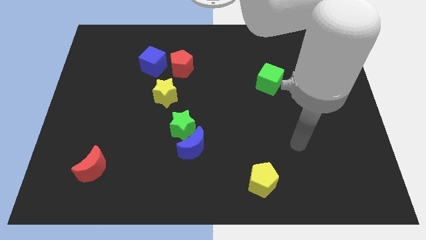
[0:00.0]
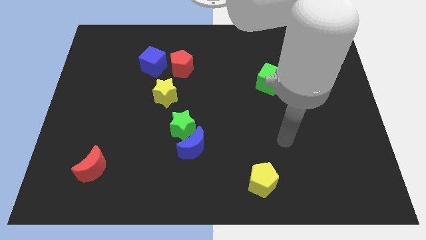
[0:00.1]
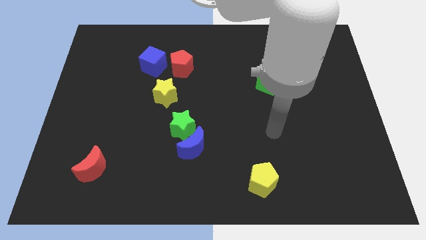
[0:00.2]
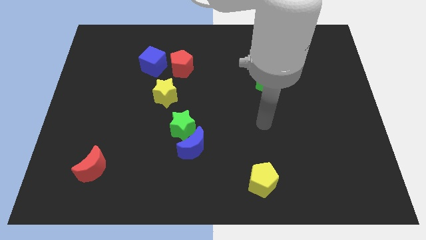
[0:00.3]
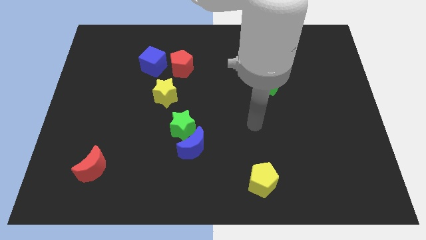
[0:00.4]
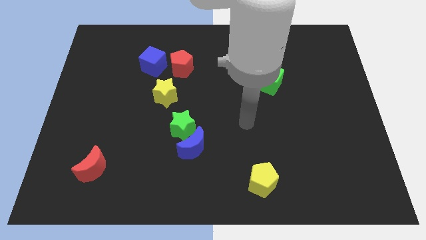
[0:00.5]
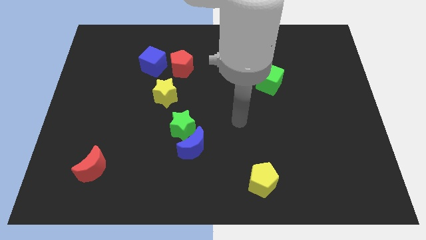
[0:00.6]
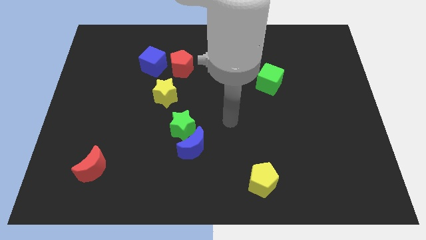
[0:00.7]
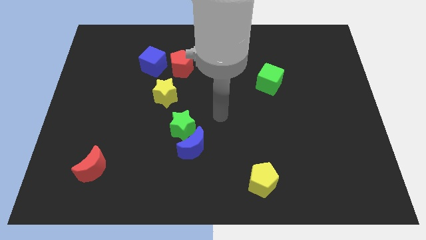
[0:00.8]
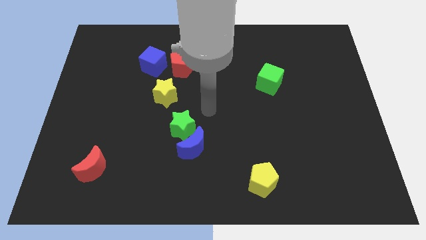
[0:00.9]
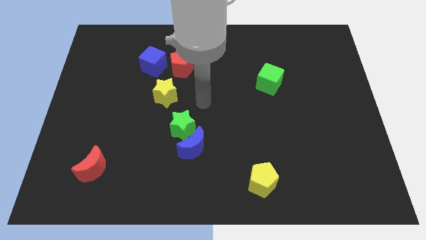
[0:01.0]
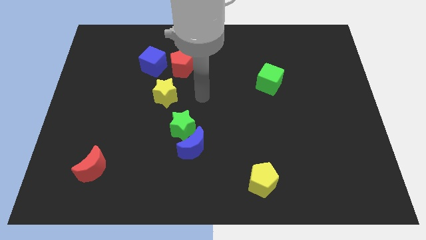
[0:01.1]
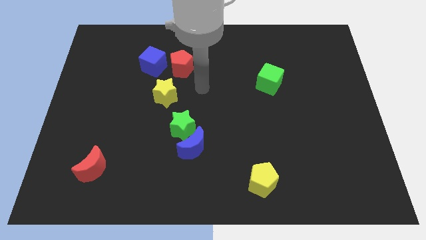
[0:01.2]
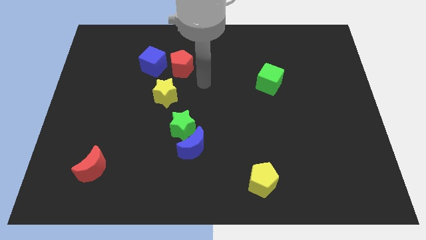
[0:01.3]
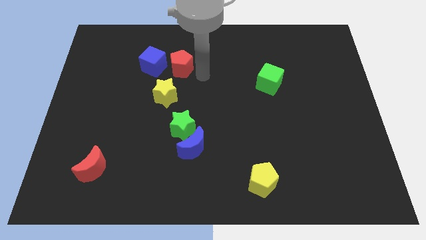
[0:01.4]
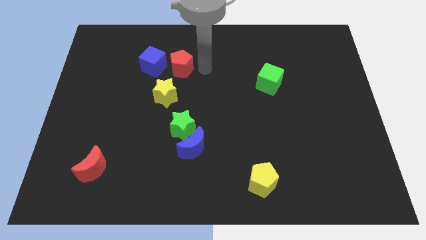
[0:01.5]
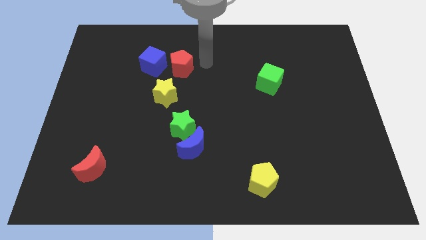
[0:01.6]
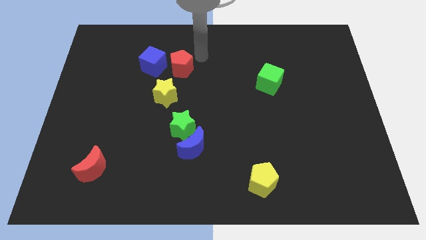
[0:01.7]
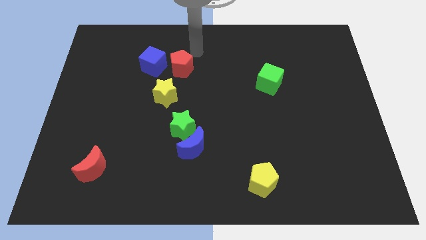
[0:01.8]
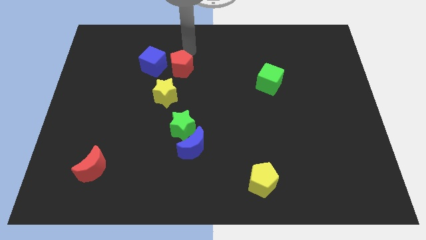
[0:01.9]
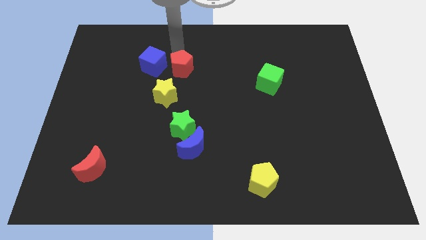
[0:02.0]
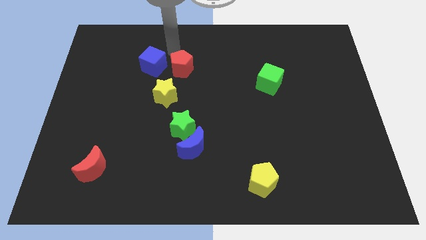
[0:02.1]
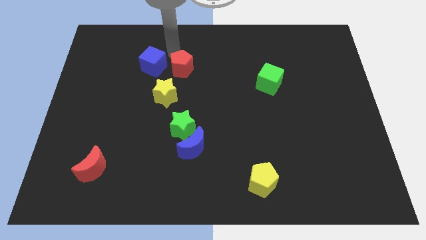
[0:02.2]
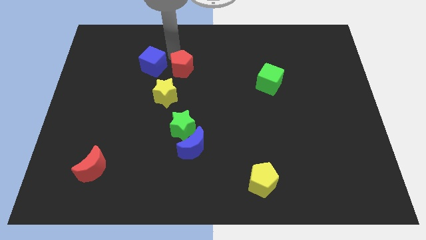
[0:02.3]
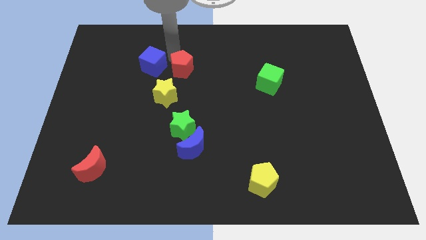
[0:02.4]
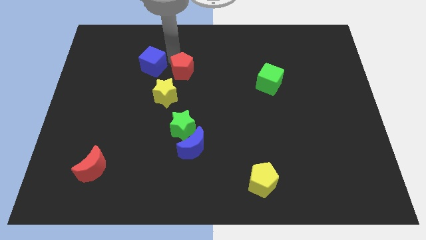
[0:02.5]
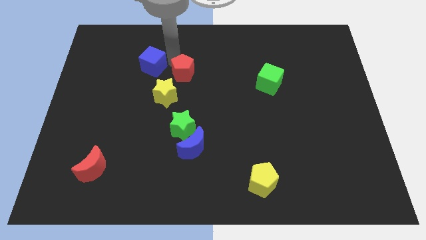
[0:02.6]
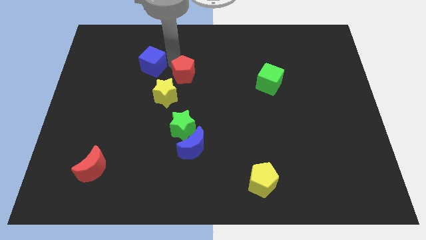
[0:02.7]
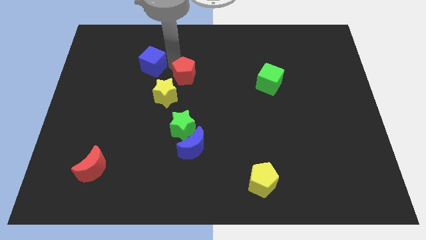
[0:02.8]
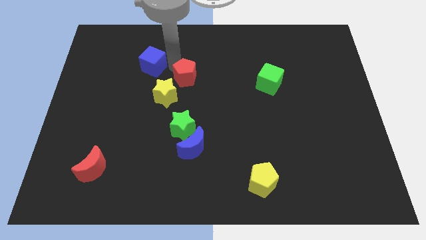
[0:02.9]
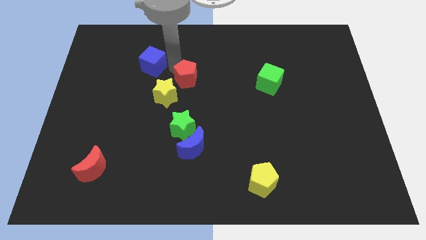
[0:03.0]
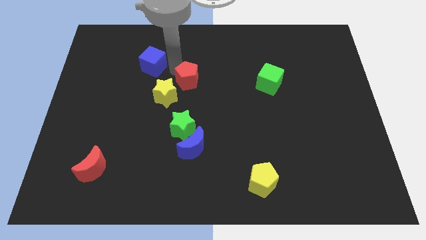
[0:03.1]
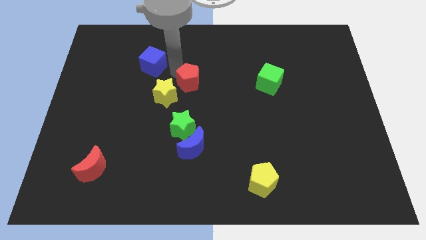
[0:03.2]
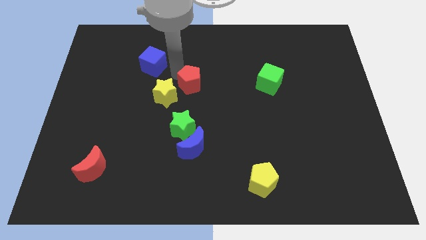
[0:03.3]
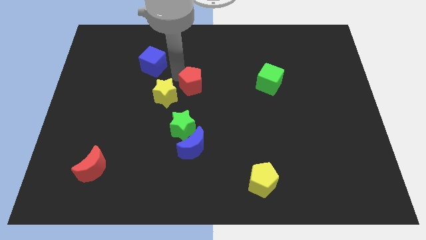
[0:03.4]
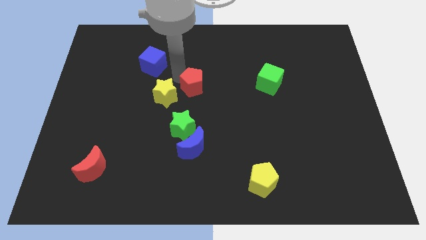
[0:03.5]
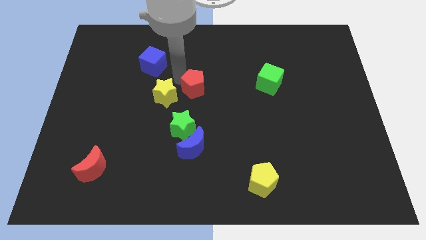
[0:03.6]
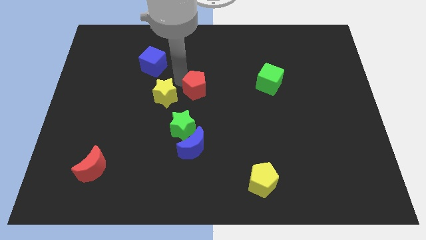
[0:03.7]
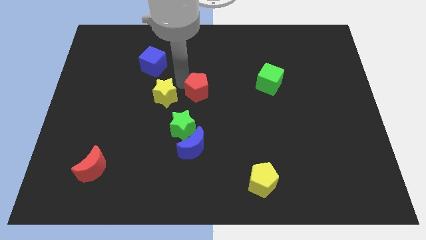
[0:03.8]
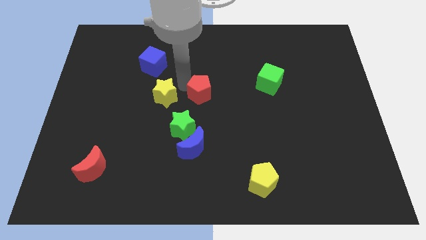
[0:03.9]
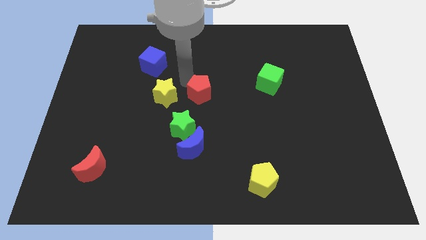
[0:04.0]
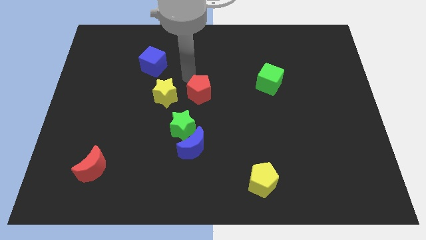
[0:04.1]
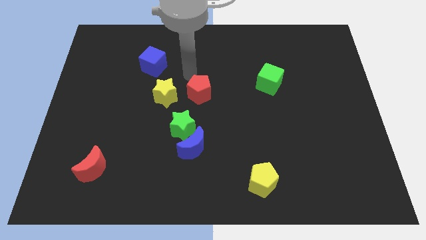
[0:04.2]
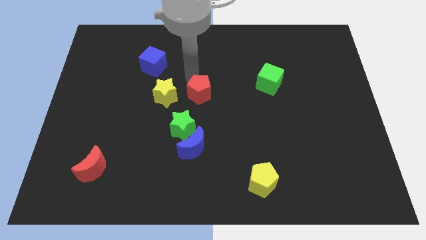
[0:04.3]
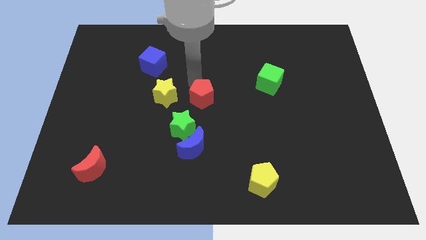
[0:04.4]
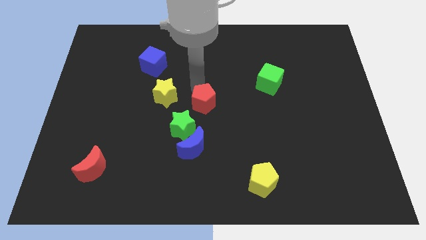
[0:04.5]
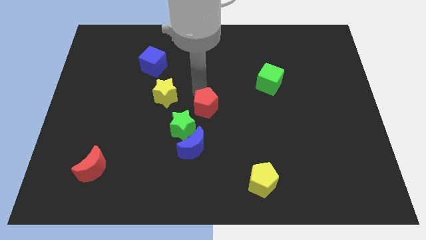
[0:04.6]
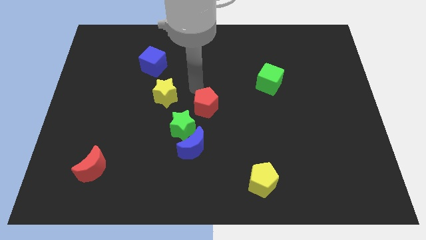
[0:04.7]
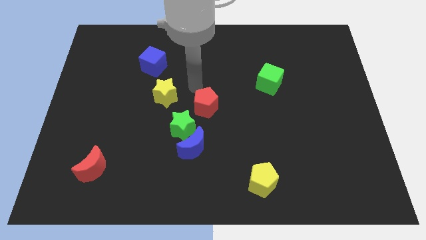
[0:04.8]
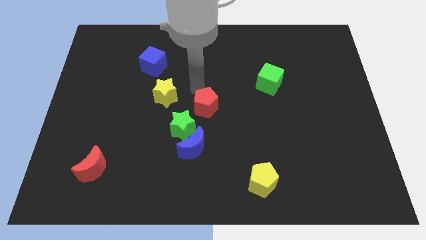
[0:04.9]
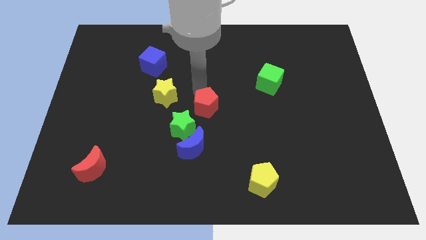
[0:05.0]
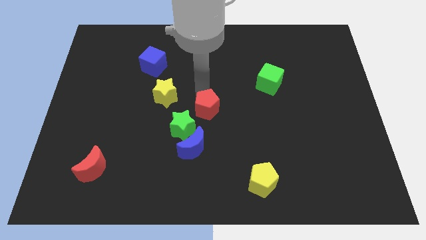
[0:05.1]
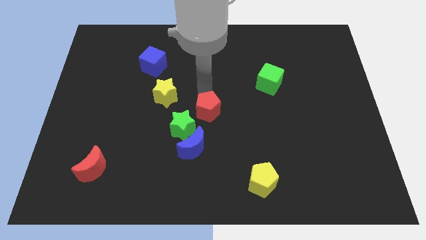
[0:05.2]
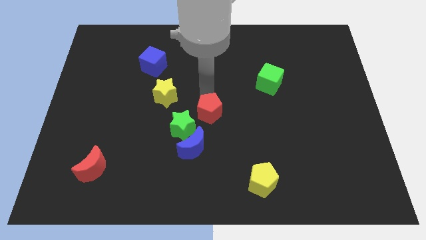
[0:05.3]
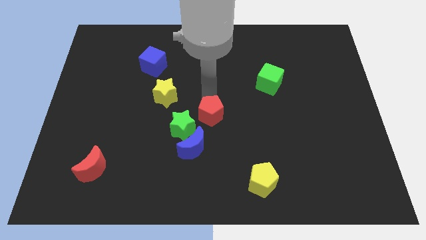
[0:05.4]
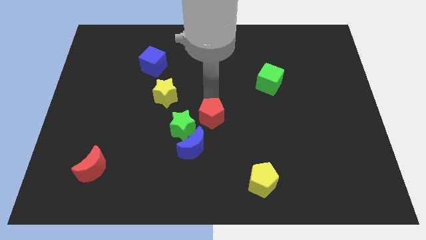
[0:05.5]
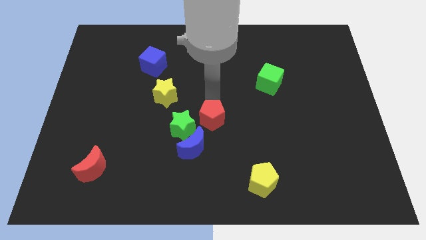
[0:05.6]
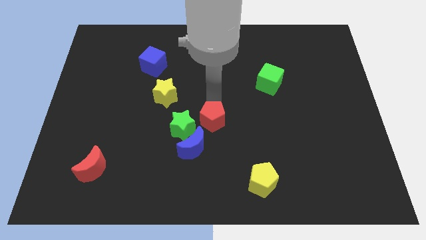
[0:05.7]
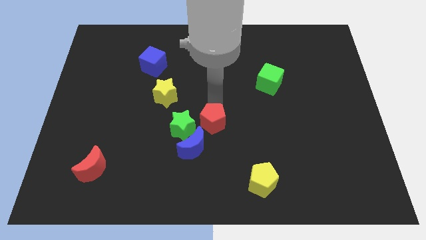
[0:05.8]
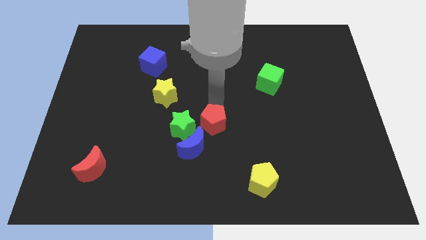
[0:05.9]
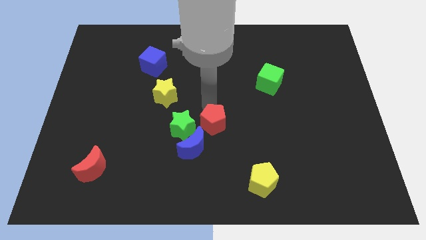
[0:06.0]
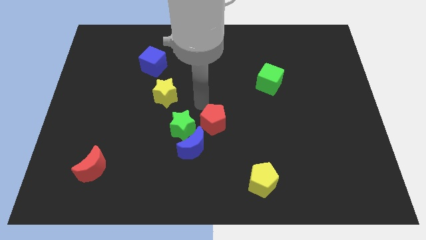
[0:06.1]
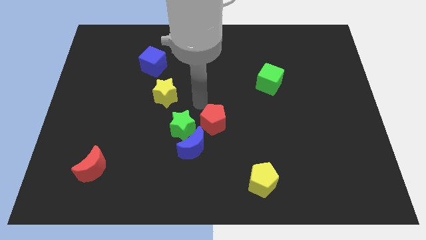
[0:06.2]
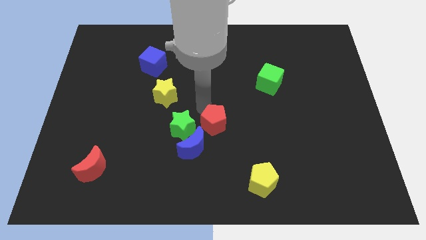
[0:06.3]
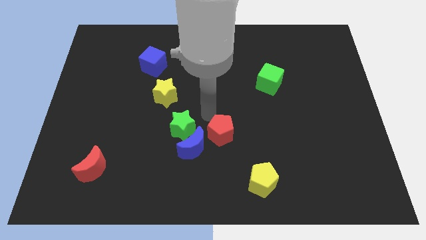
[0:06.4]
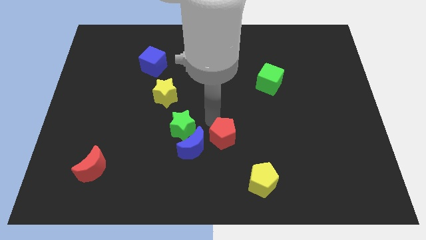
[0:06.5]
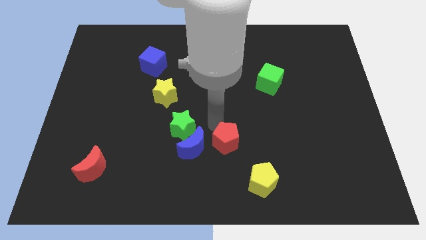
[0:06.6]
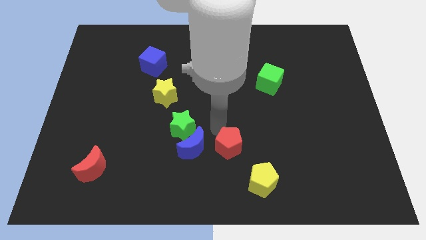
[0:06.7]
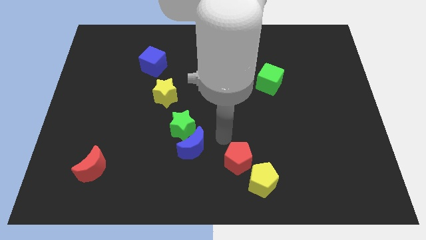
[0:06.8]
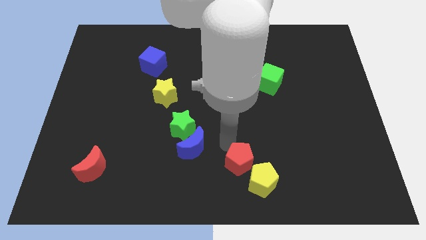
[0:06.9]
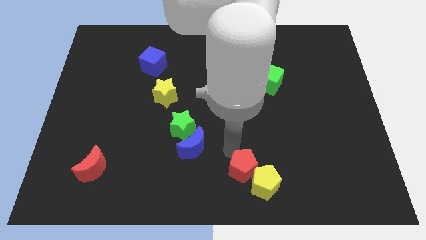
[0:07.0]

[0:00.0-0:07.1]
move the red pentagon to the yellow pentagon

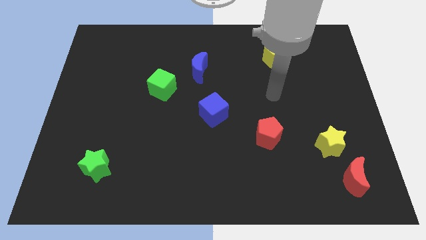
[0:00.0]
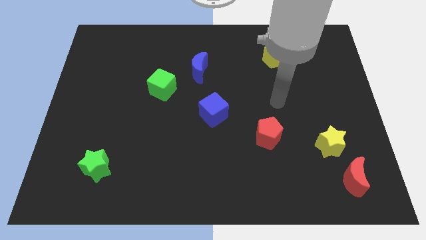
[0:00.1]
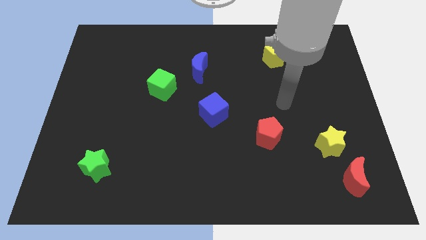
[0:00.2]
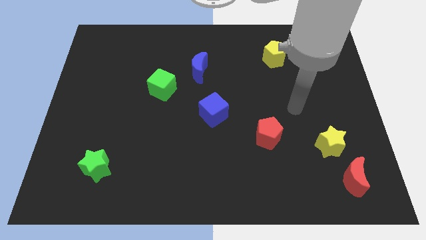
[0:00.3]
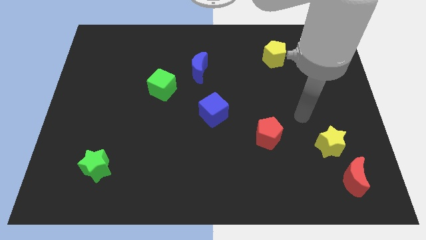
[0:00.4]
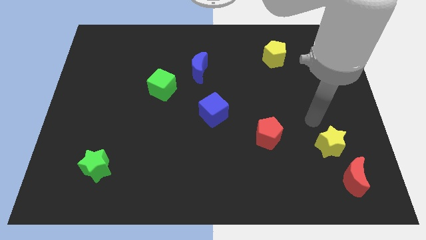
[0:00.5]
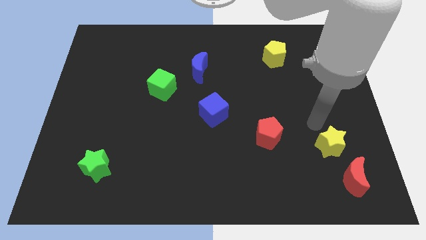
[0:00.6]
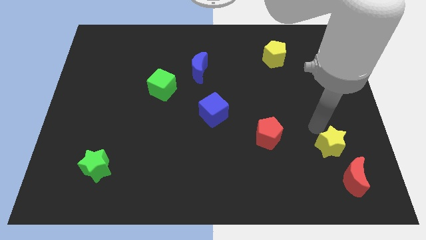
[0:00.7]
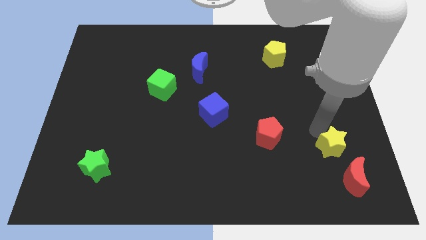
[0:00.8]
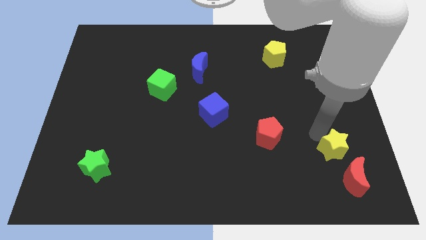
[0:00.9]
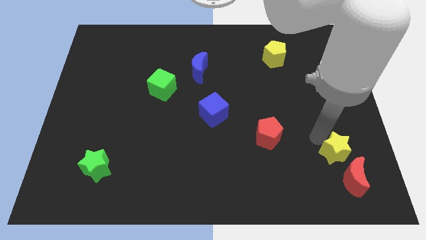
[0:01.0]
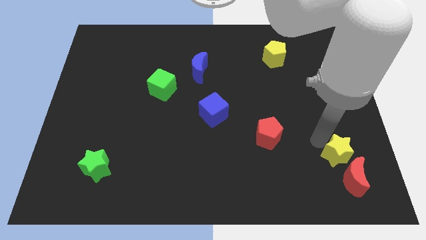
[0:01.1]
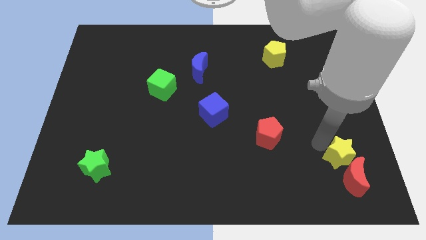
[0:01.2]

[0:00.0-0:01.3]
move the yellow star to the red moon
